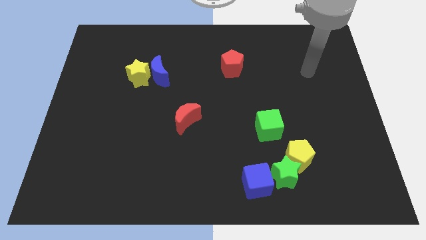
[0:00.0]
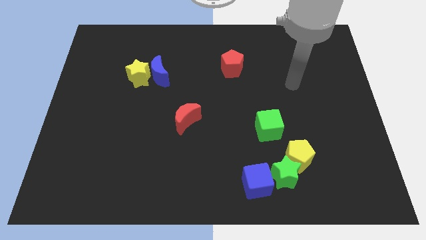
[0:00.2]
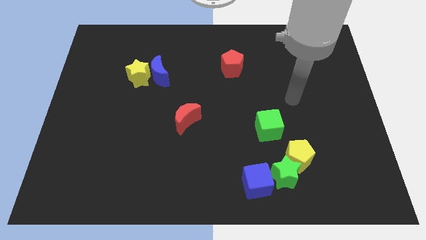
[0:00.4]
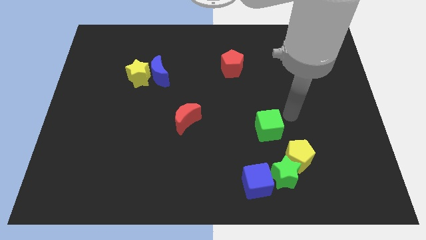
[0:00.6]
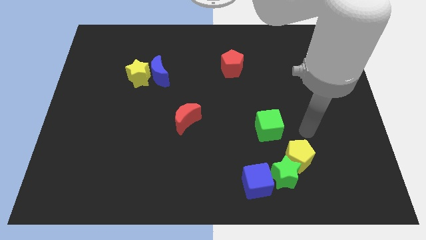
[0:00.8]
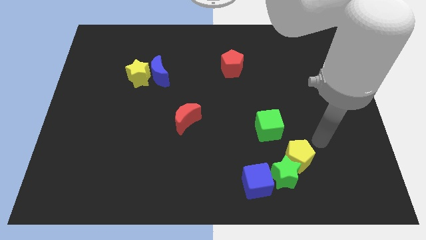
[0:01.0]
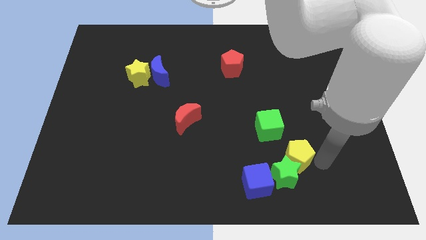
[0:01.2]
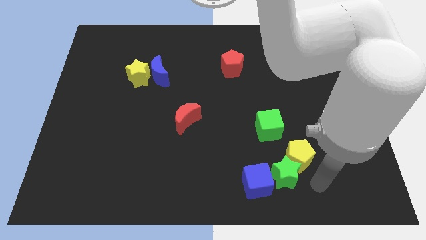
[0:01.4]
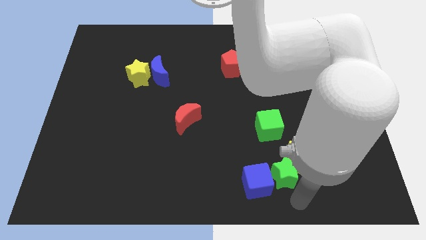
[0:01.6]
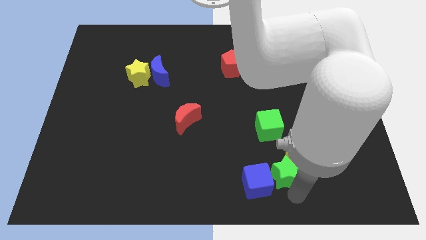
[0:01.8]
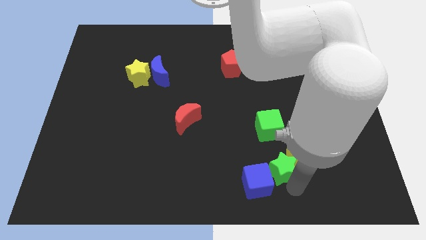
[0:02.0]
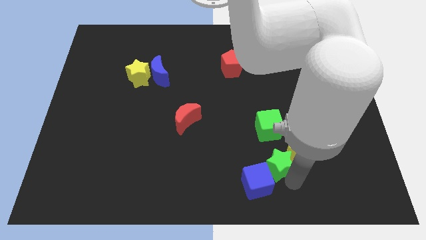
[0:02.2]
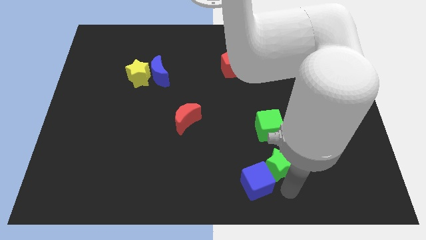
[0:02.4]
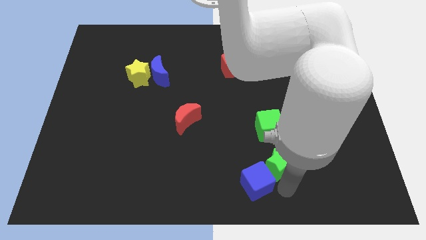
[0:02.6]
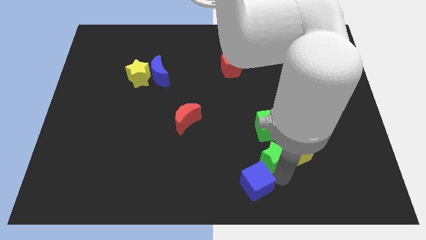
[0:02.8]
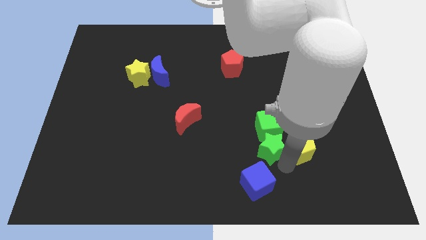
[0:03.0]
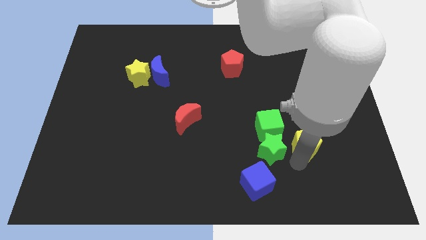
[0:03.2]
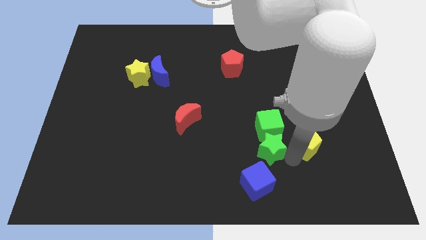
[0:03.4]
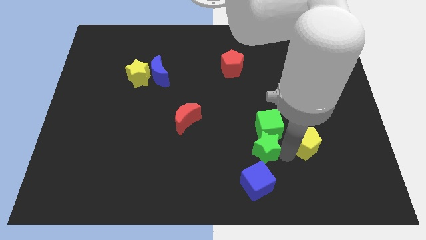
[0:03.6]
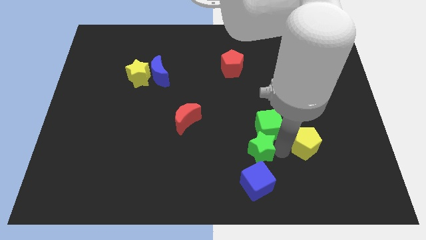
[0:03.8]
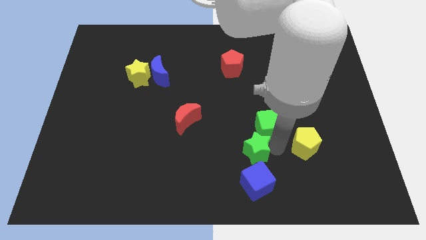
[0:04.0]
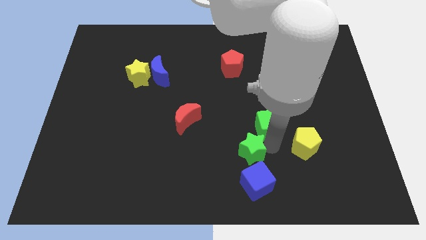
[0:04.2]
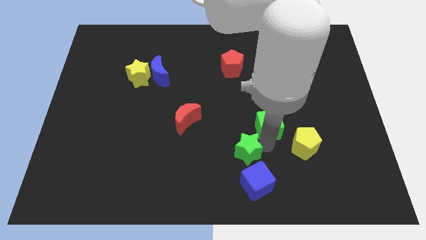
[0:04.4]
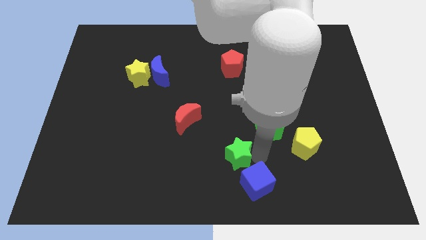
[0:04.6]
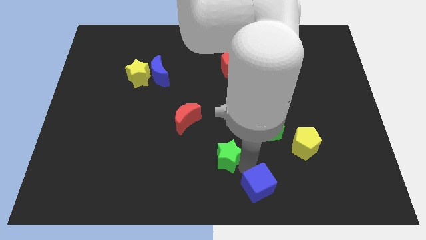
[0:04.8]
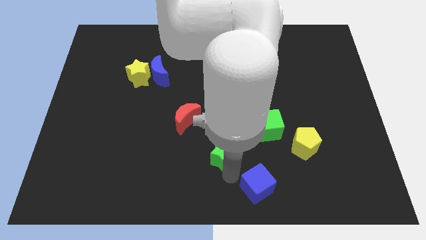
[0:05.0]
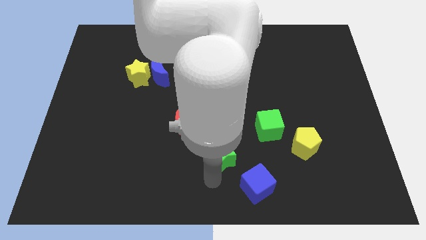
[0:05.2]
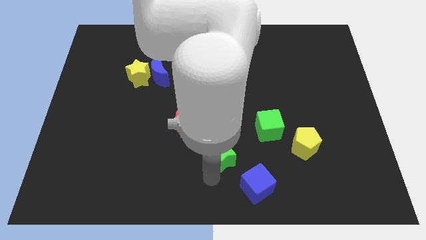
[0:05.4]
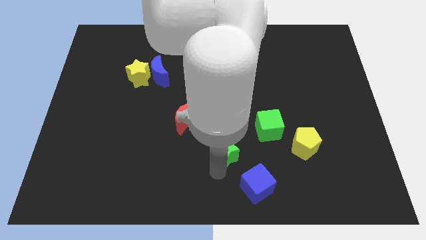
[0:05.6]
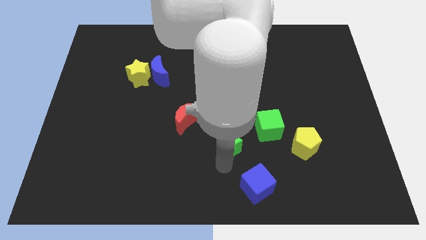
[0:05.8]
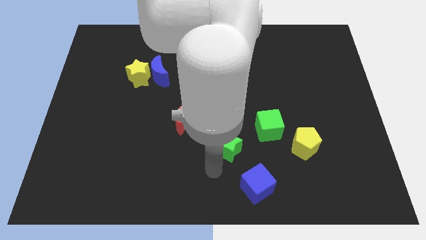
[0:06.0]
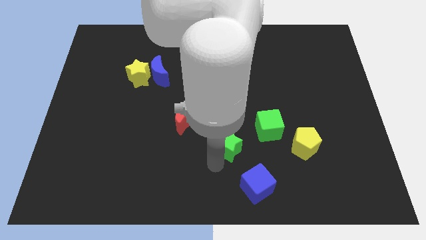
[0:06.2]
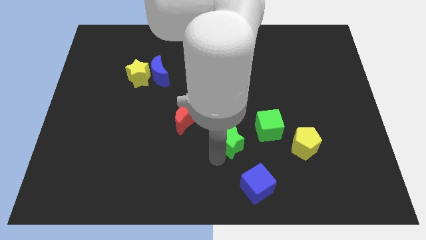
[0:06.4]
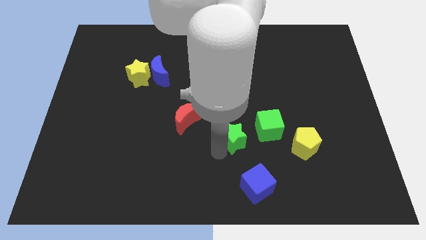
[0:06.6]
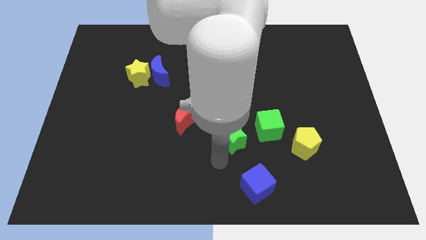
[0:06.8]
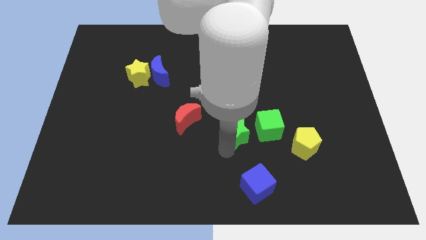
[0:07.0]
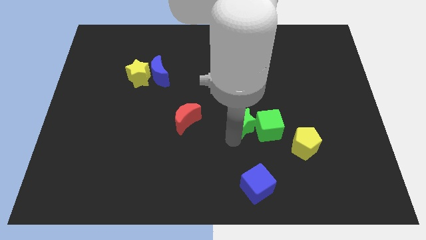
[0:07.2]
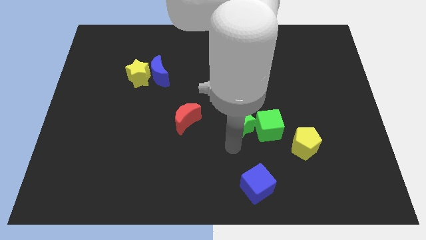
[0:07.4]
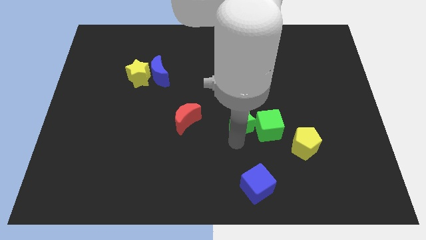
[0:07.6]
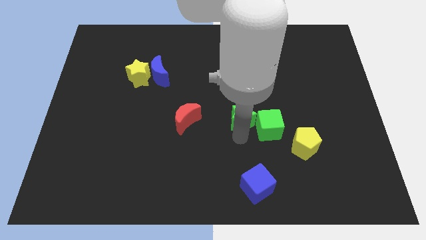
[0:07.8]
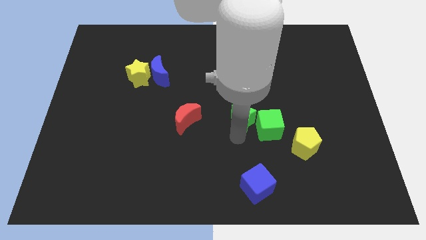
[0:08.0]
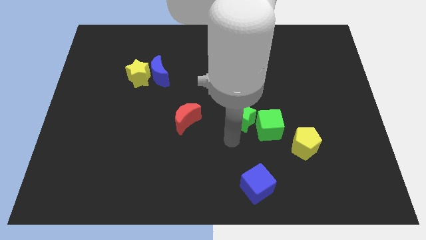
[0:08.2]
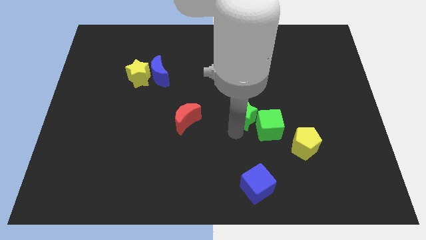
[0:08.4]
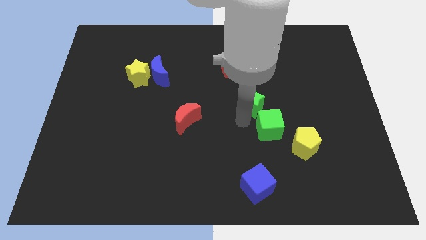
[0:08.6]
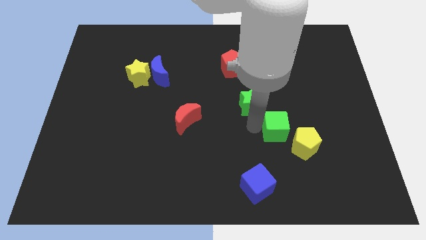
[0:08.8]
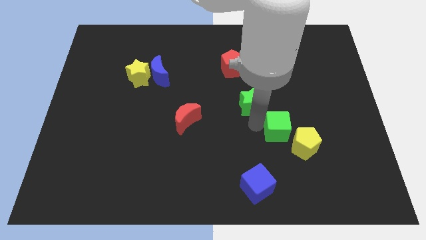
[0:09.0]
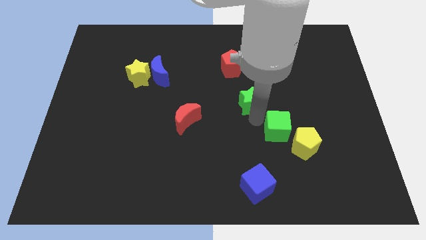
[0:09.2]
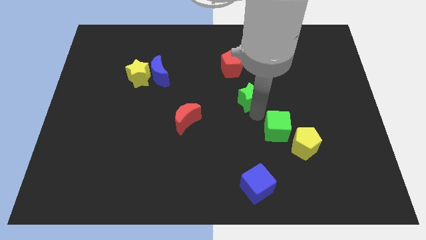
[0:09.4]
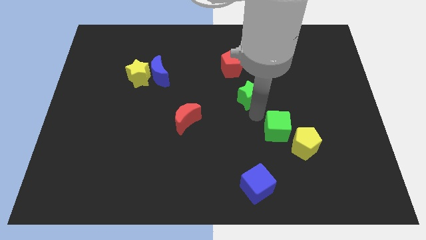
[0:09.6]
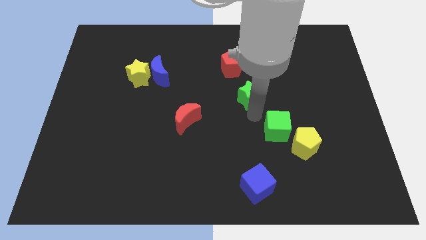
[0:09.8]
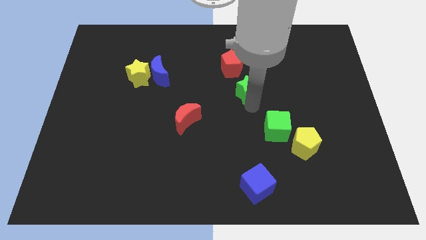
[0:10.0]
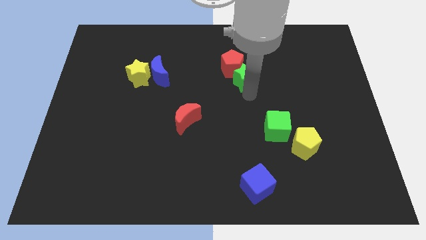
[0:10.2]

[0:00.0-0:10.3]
slide the green star to the red pentagon

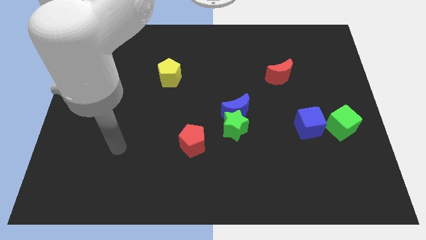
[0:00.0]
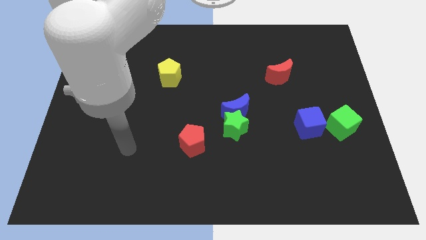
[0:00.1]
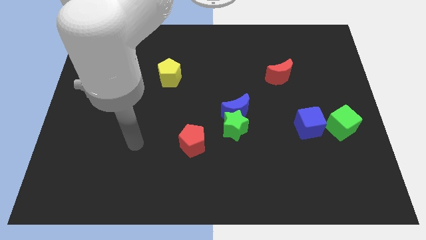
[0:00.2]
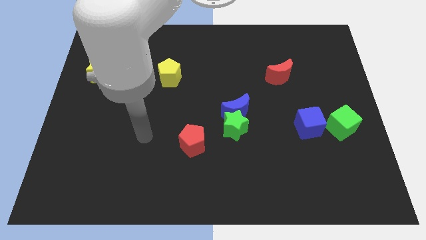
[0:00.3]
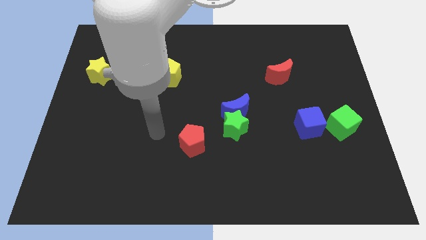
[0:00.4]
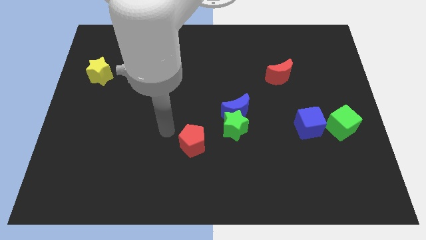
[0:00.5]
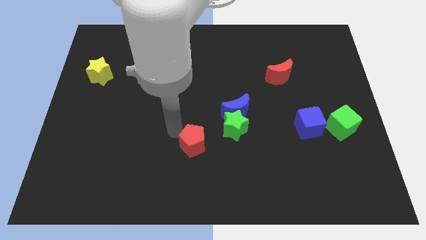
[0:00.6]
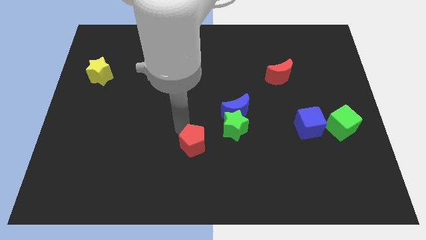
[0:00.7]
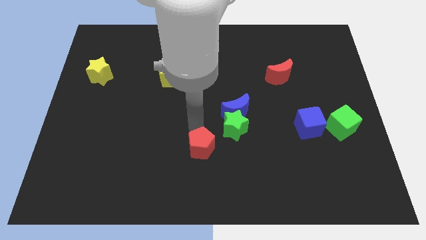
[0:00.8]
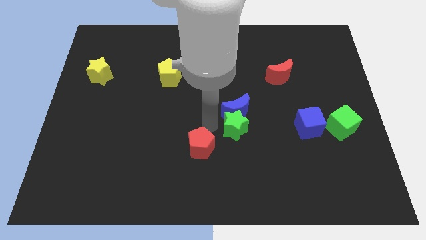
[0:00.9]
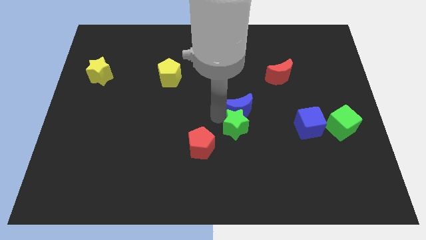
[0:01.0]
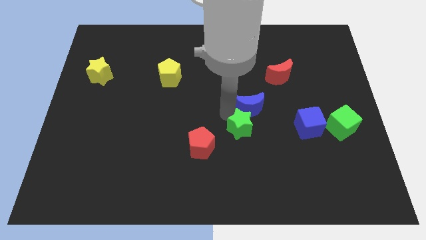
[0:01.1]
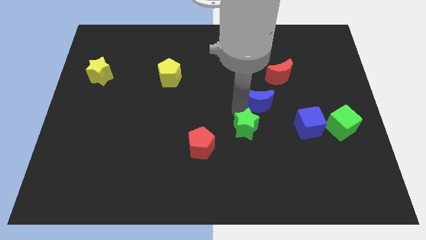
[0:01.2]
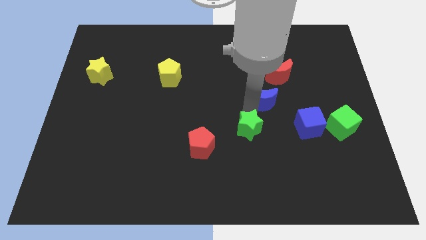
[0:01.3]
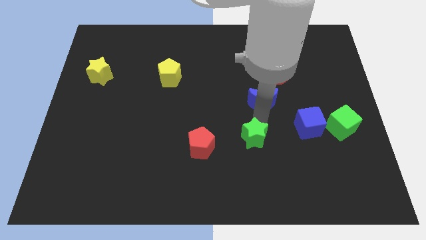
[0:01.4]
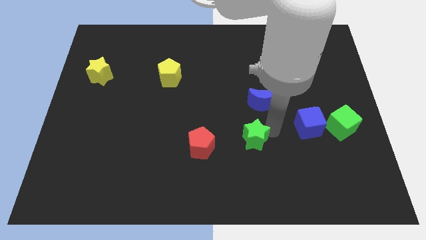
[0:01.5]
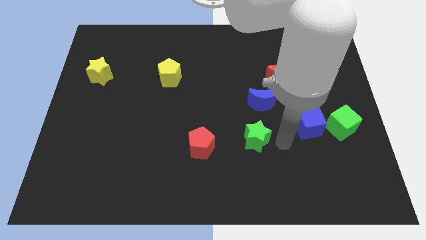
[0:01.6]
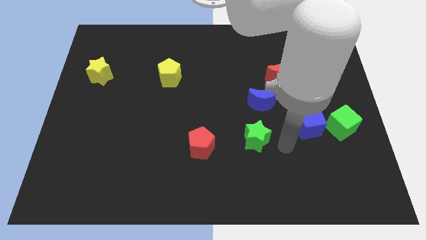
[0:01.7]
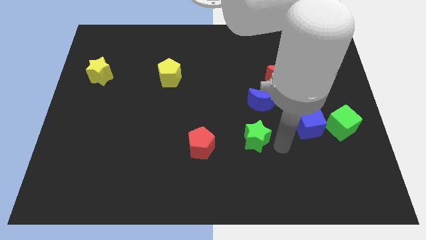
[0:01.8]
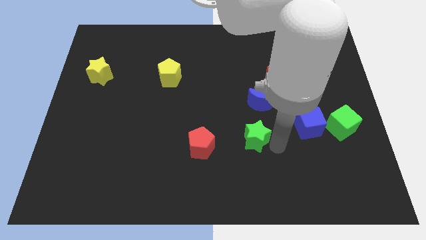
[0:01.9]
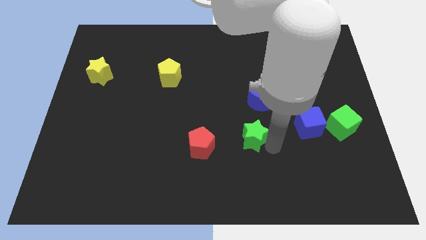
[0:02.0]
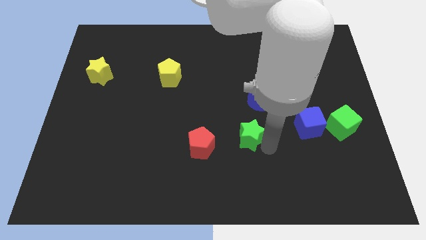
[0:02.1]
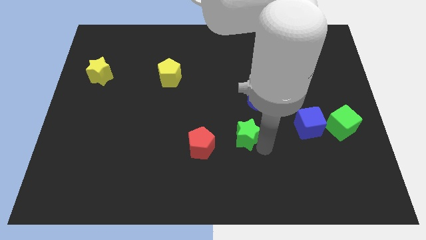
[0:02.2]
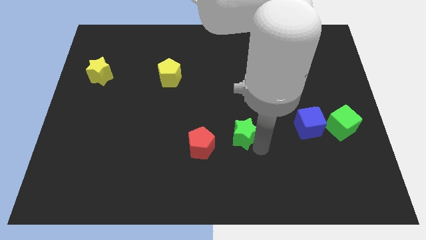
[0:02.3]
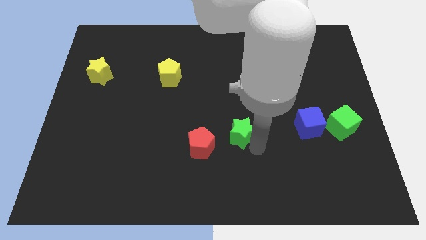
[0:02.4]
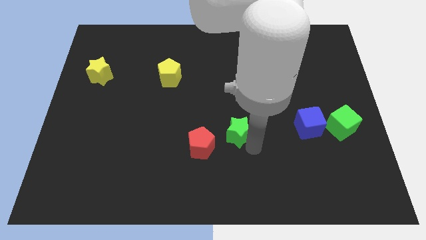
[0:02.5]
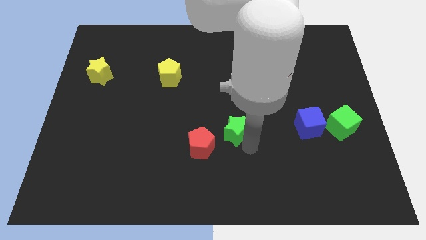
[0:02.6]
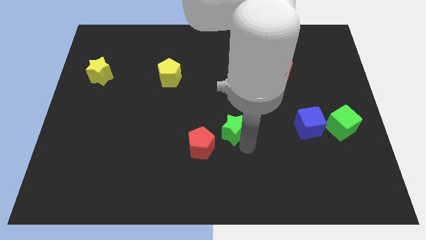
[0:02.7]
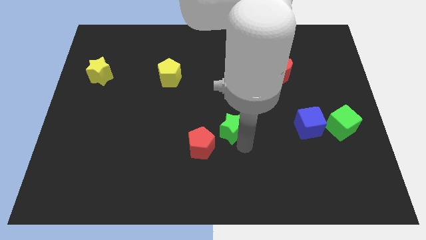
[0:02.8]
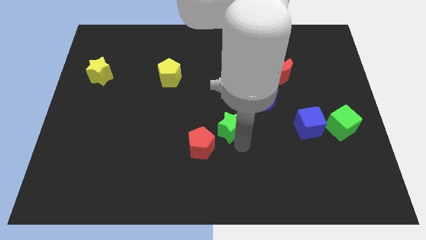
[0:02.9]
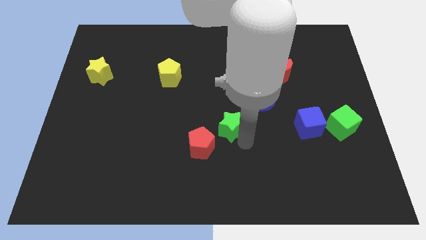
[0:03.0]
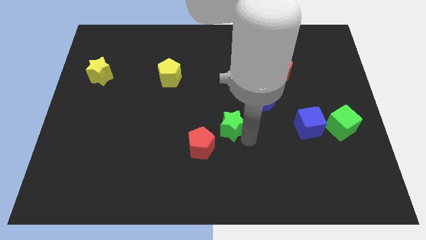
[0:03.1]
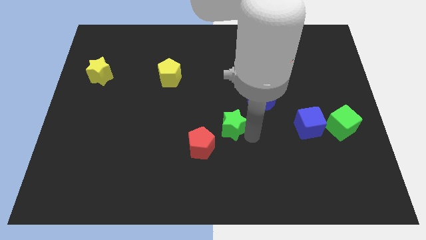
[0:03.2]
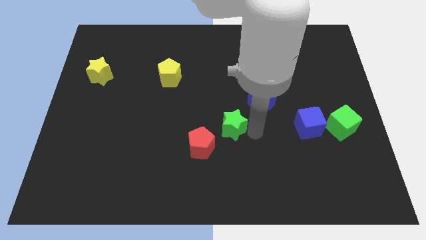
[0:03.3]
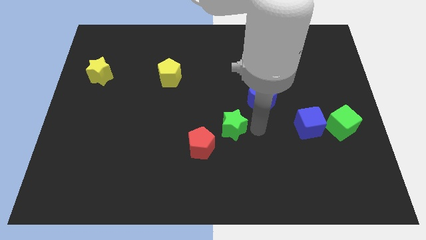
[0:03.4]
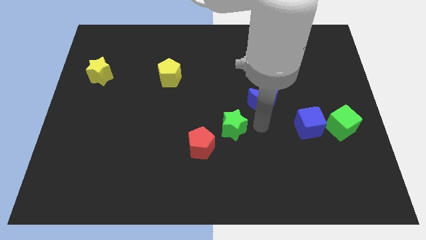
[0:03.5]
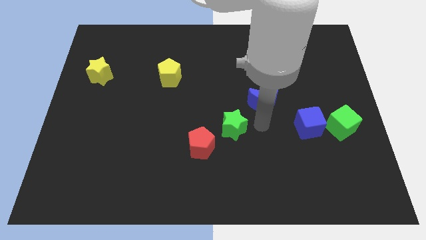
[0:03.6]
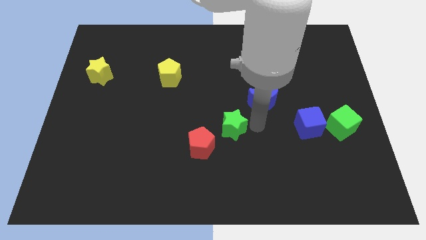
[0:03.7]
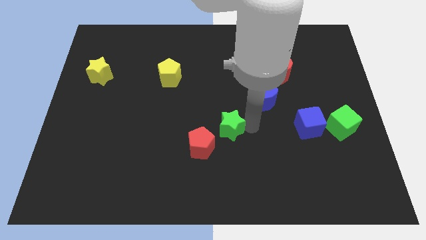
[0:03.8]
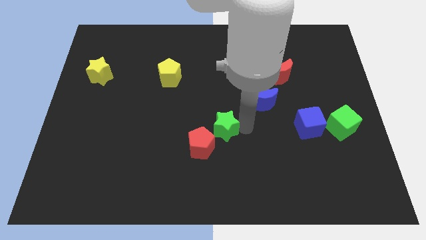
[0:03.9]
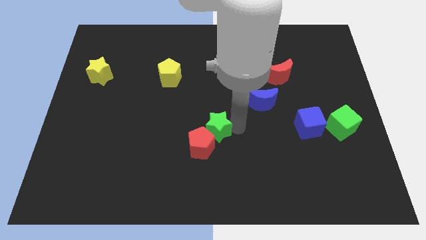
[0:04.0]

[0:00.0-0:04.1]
push the green star to the red pentagon
